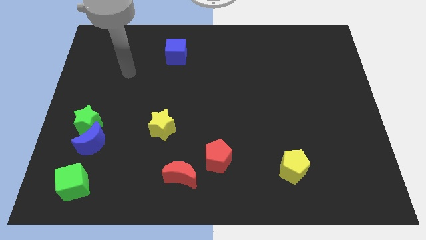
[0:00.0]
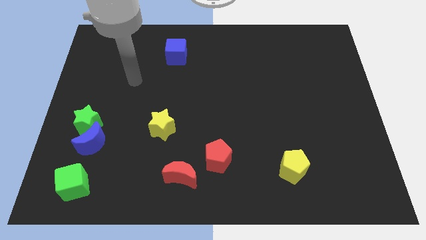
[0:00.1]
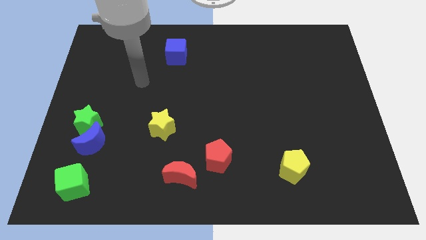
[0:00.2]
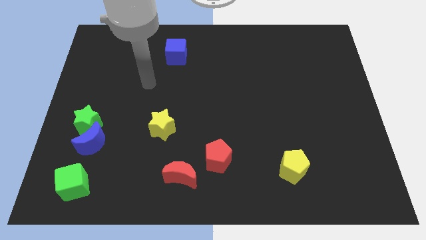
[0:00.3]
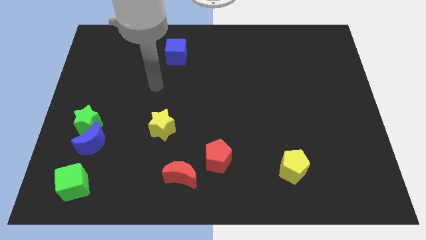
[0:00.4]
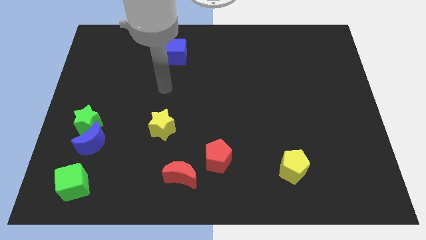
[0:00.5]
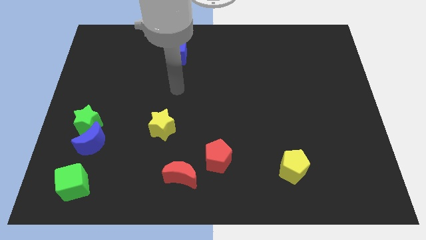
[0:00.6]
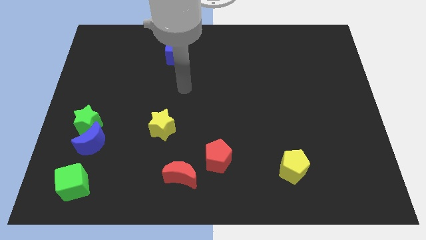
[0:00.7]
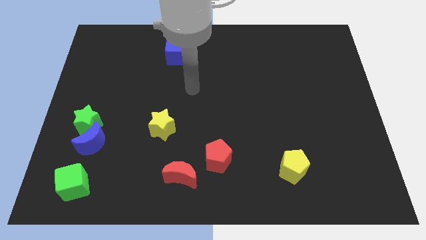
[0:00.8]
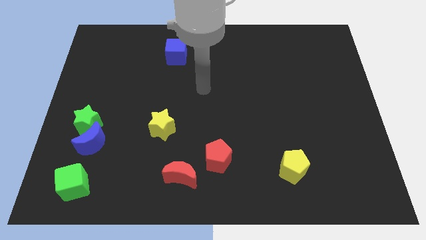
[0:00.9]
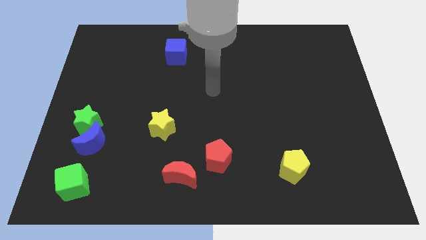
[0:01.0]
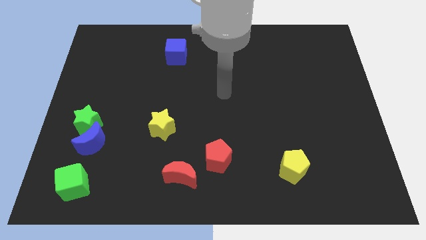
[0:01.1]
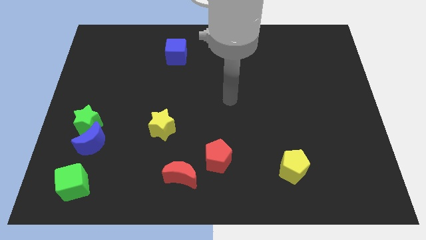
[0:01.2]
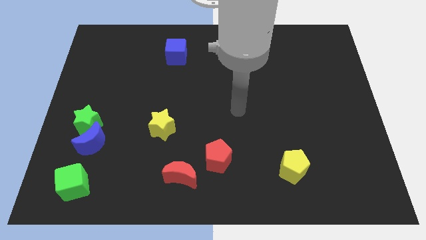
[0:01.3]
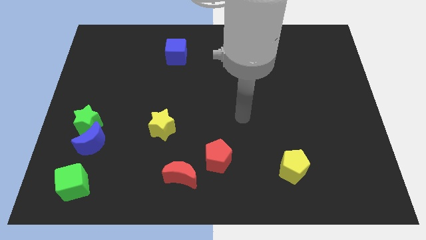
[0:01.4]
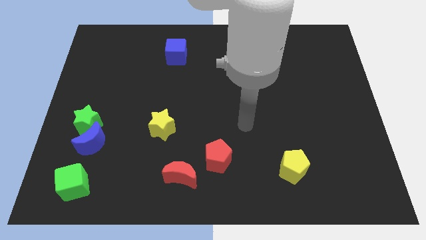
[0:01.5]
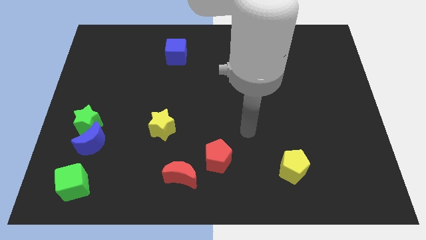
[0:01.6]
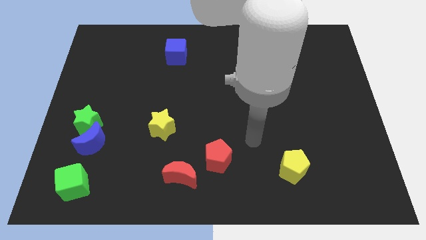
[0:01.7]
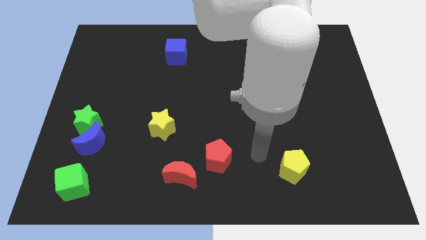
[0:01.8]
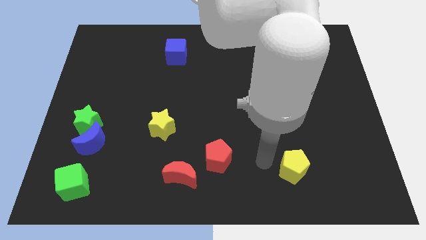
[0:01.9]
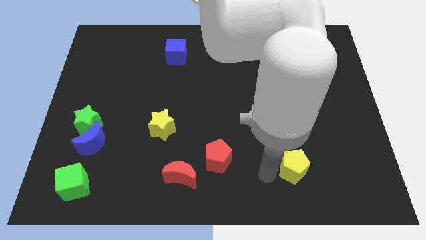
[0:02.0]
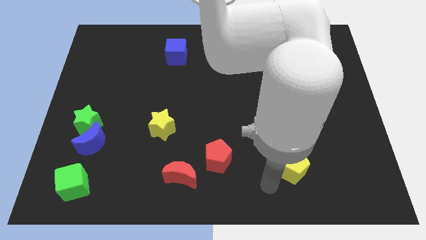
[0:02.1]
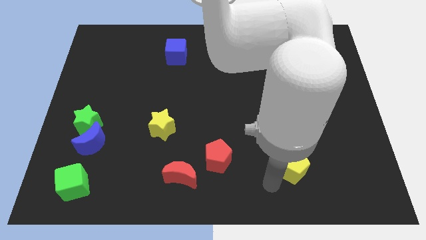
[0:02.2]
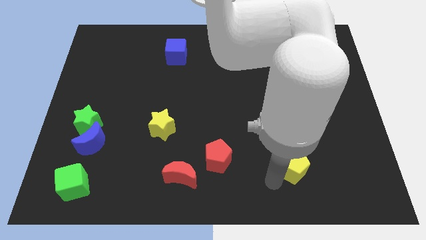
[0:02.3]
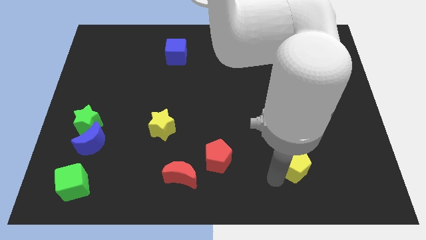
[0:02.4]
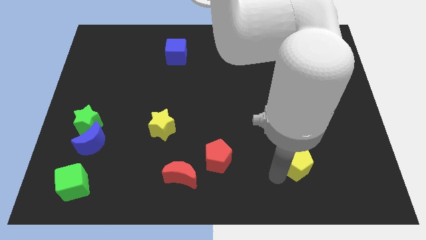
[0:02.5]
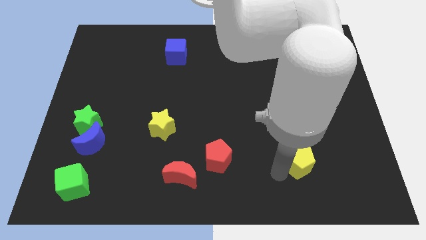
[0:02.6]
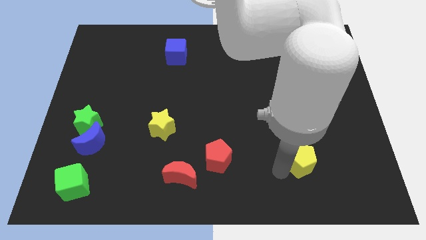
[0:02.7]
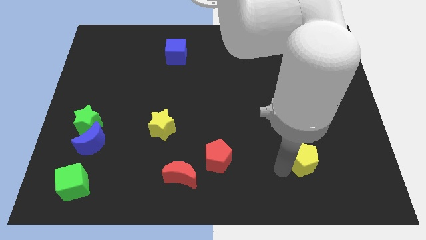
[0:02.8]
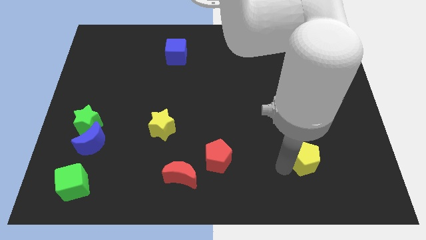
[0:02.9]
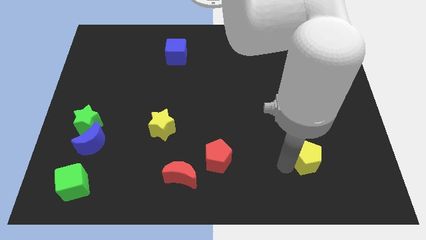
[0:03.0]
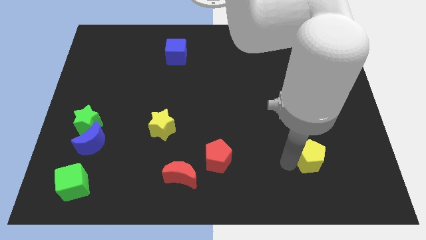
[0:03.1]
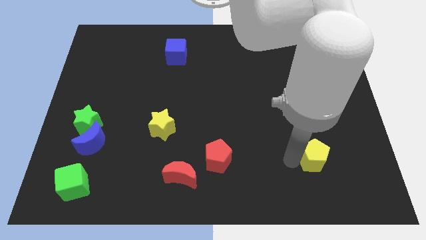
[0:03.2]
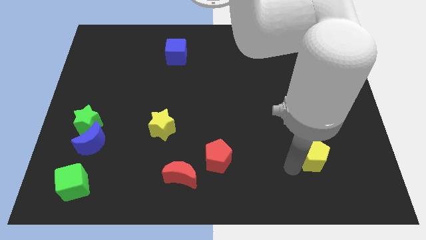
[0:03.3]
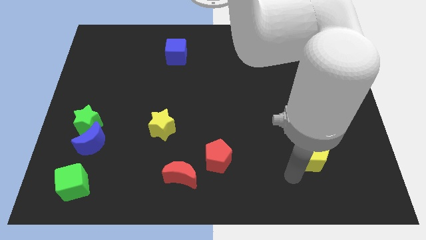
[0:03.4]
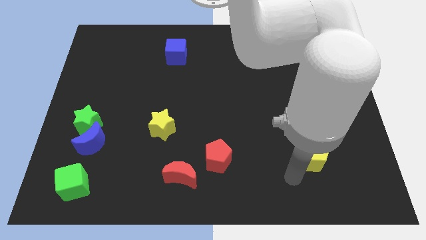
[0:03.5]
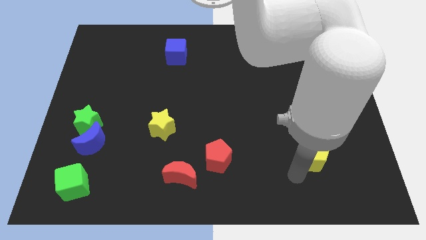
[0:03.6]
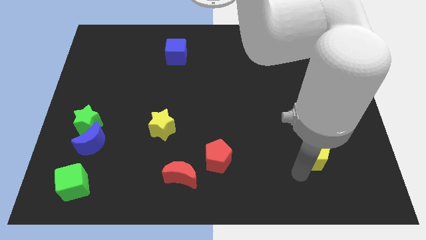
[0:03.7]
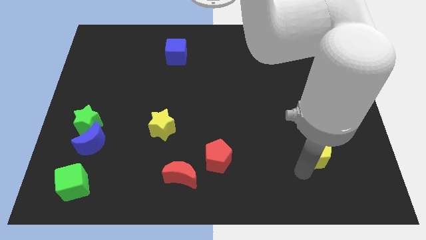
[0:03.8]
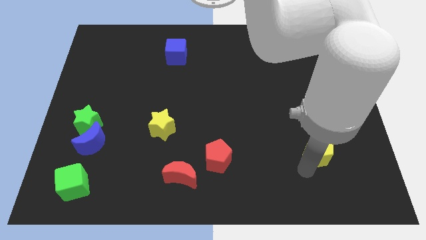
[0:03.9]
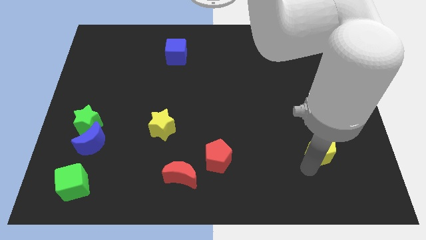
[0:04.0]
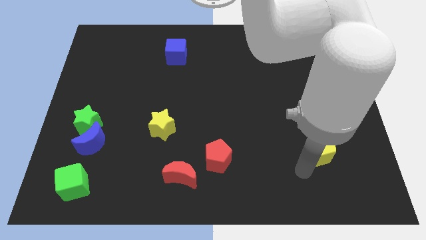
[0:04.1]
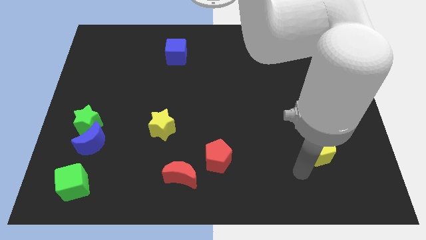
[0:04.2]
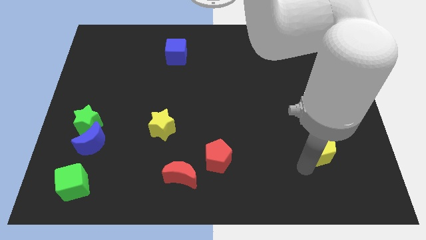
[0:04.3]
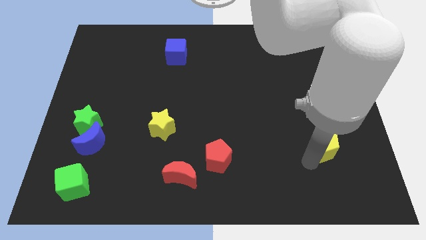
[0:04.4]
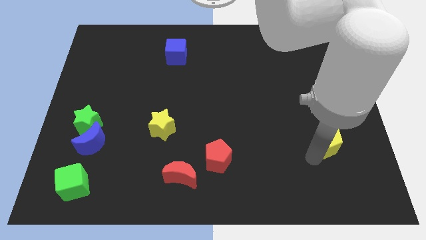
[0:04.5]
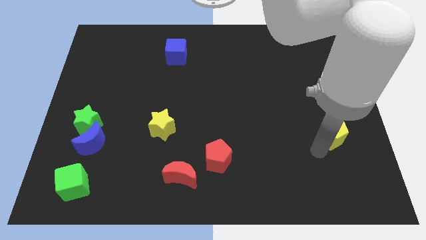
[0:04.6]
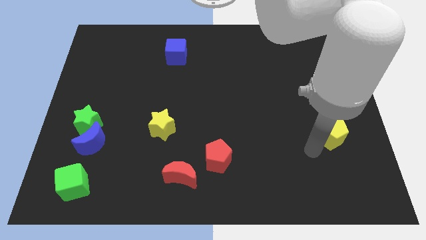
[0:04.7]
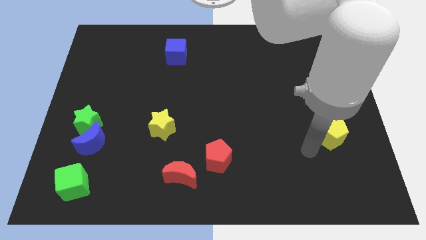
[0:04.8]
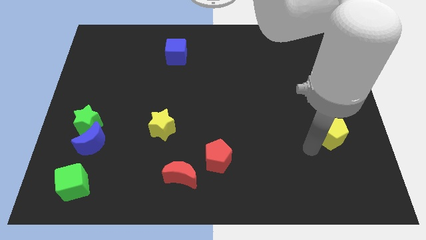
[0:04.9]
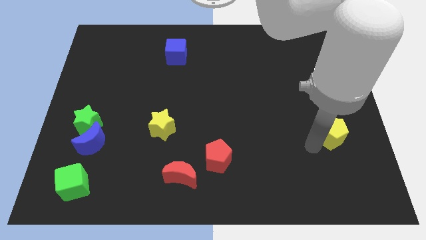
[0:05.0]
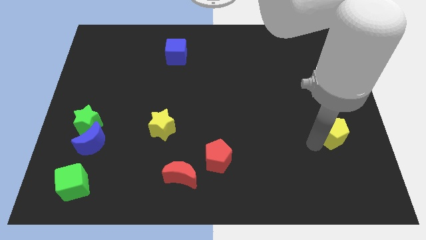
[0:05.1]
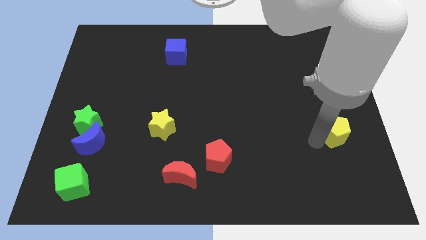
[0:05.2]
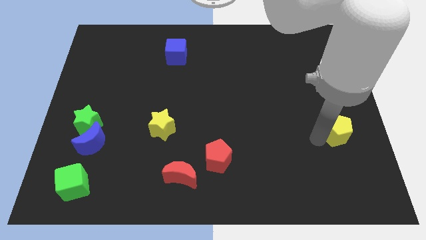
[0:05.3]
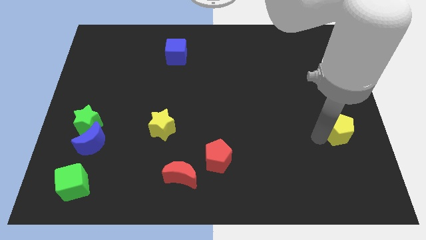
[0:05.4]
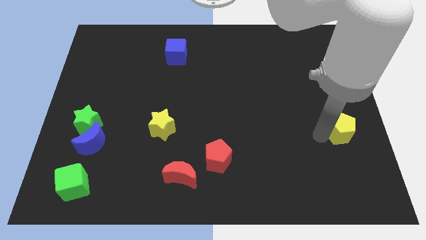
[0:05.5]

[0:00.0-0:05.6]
slide the yellow pentagon to the right side

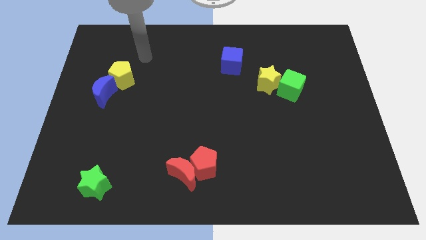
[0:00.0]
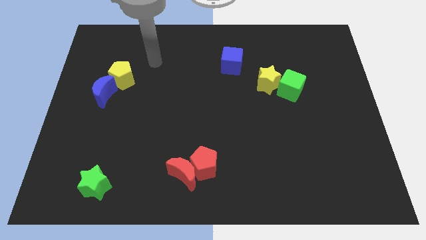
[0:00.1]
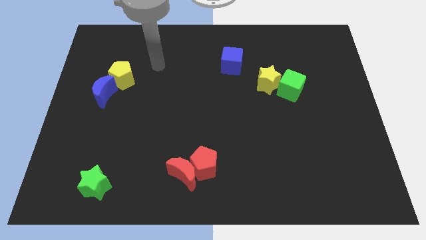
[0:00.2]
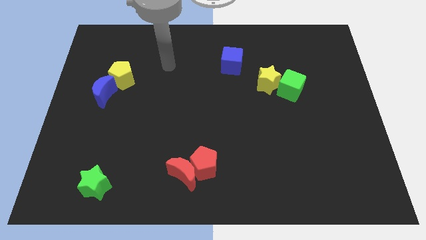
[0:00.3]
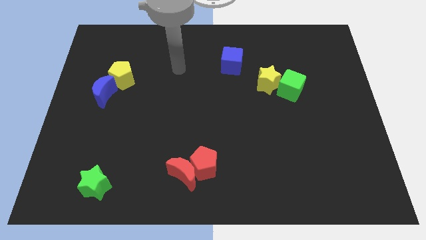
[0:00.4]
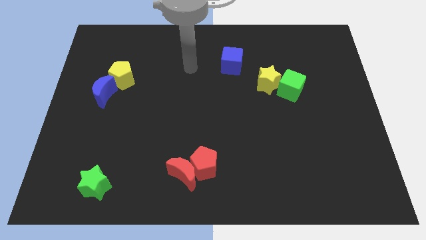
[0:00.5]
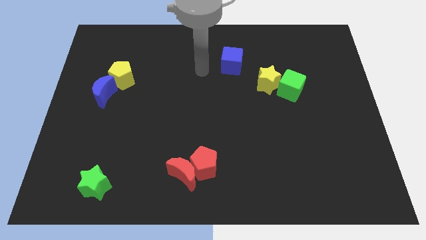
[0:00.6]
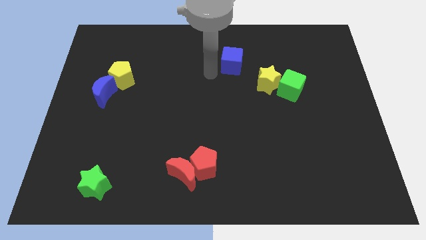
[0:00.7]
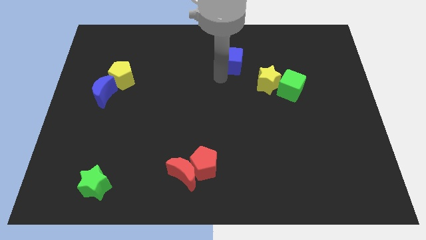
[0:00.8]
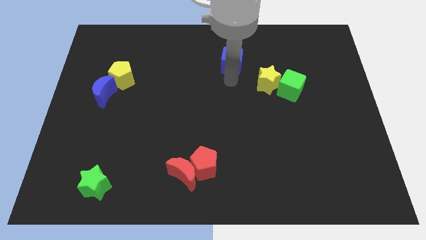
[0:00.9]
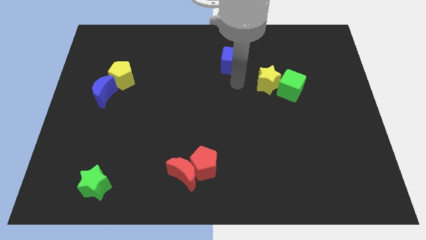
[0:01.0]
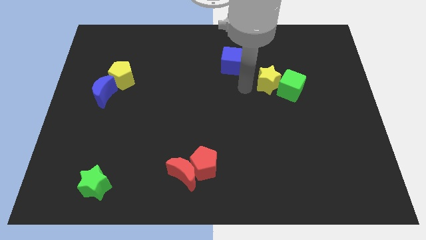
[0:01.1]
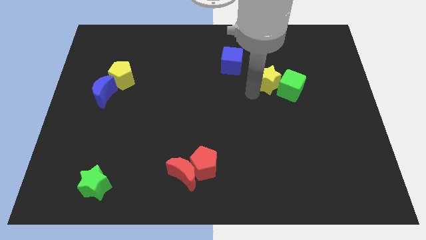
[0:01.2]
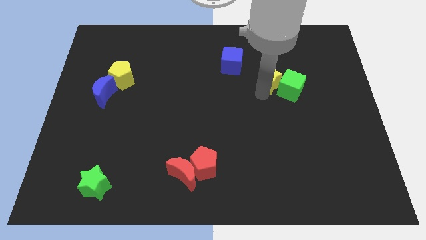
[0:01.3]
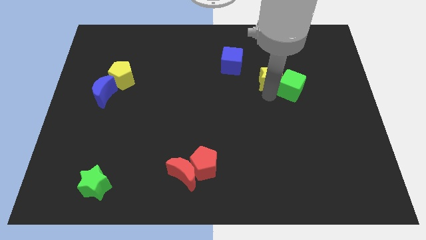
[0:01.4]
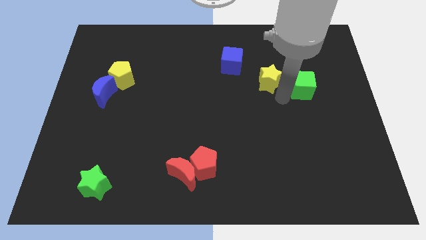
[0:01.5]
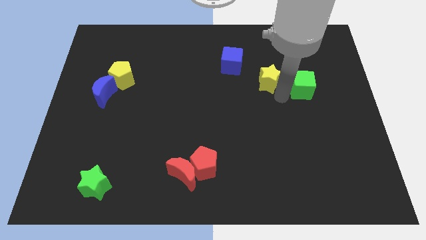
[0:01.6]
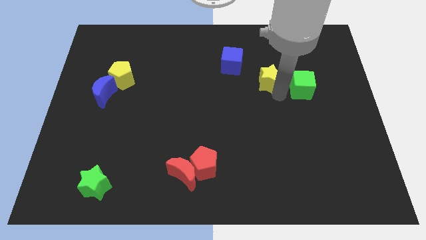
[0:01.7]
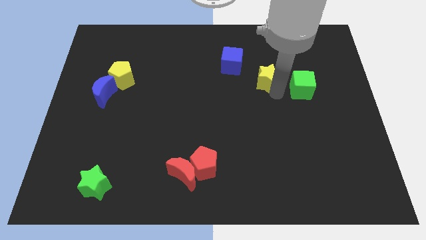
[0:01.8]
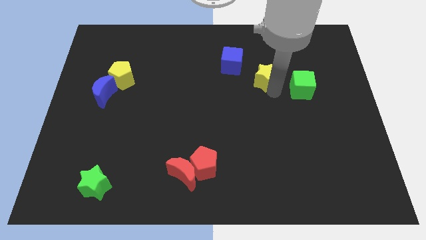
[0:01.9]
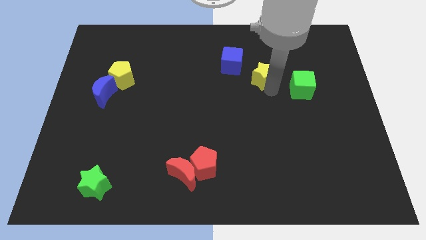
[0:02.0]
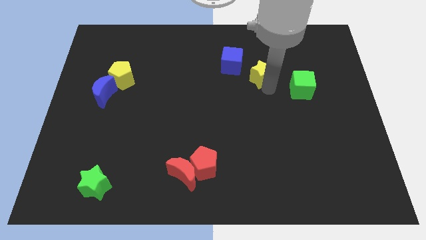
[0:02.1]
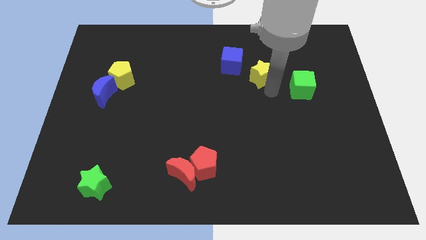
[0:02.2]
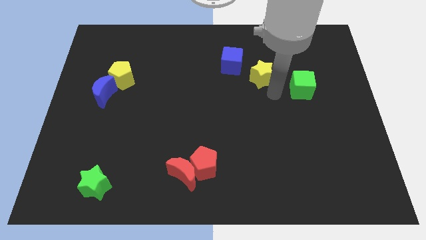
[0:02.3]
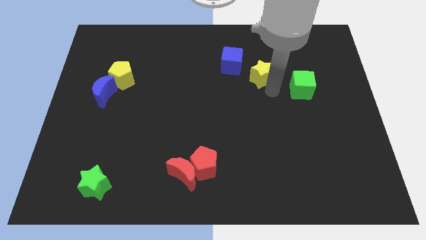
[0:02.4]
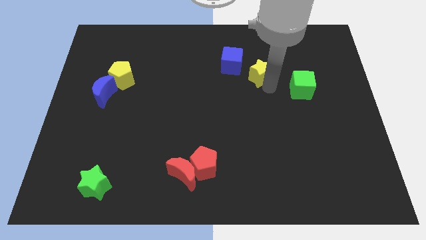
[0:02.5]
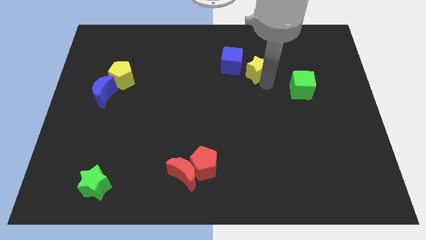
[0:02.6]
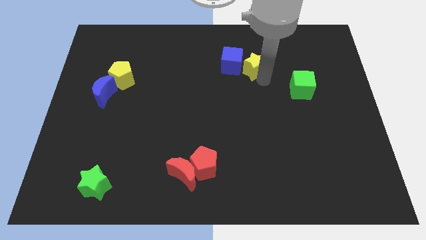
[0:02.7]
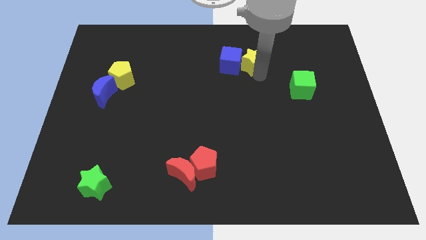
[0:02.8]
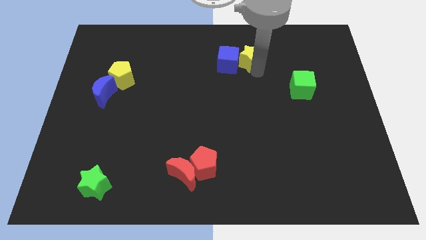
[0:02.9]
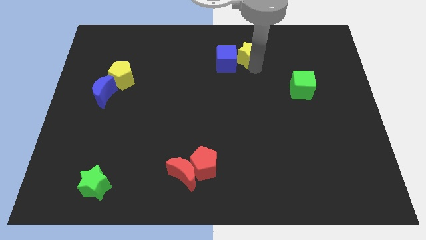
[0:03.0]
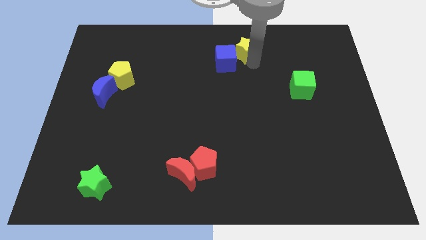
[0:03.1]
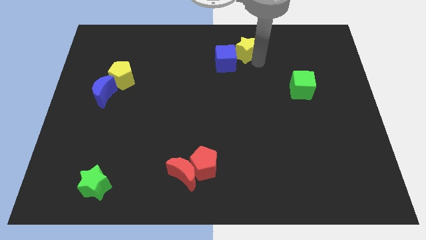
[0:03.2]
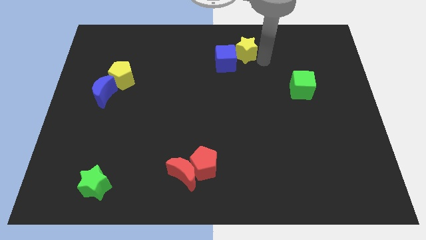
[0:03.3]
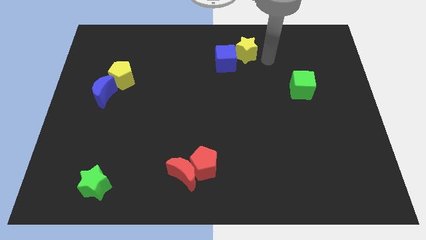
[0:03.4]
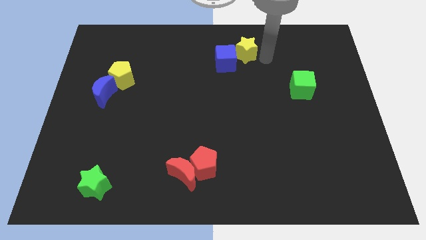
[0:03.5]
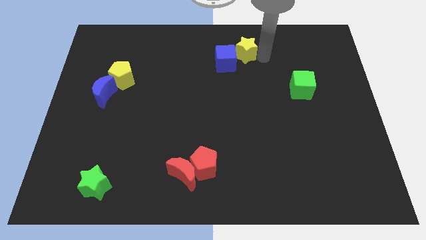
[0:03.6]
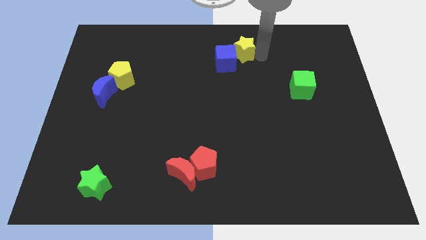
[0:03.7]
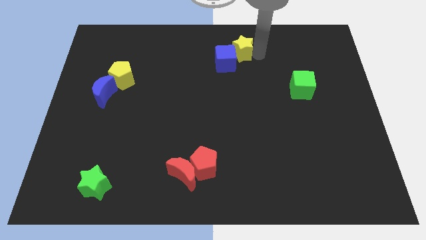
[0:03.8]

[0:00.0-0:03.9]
slide the yellow star to the top
